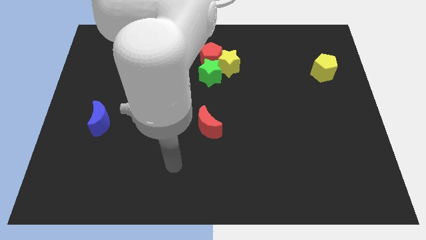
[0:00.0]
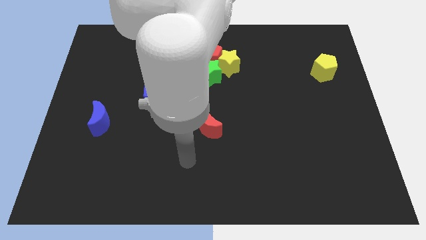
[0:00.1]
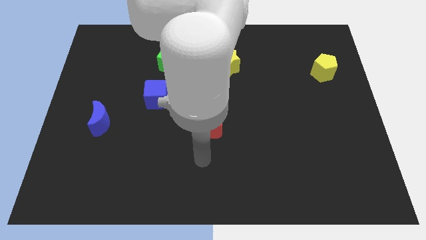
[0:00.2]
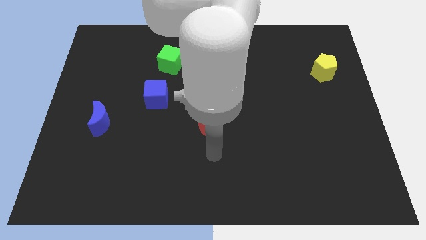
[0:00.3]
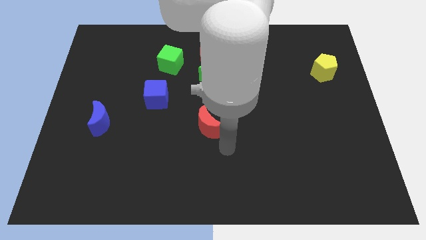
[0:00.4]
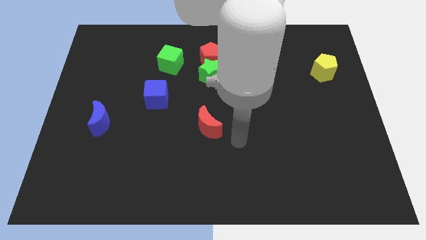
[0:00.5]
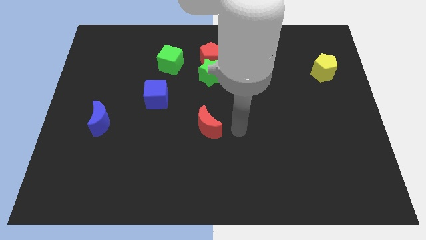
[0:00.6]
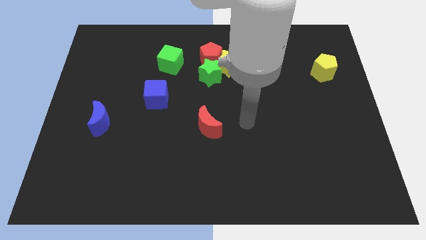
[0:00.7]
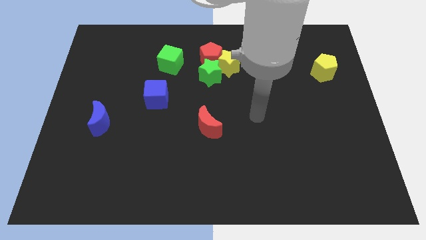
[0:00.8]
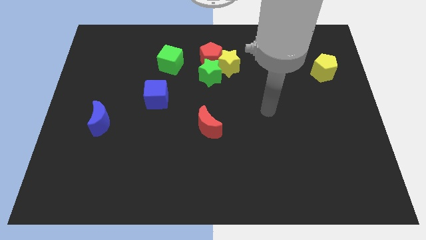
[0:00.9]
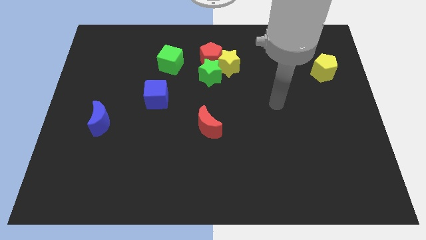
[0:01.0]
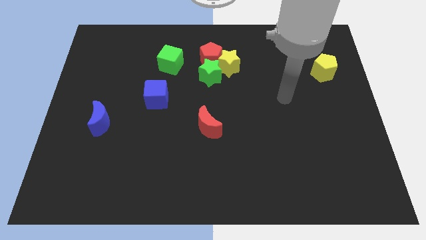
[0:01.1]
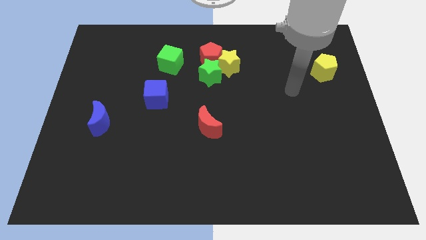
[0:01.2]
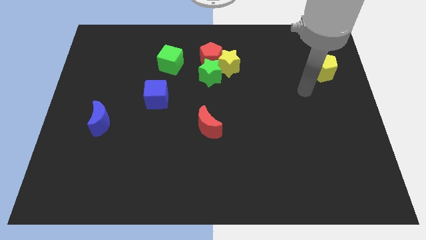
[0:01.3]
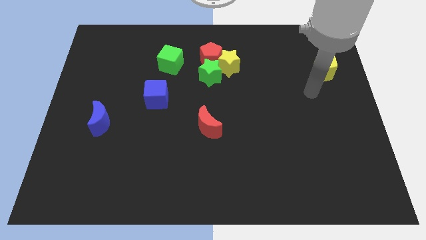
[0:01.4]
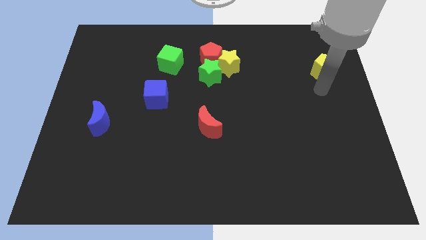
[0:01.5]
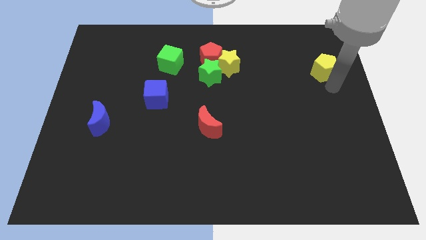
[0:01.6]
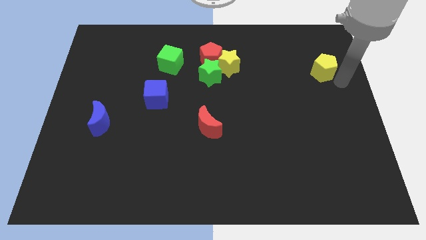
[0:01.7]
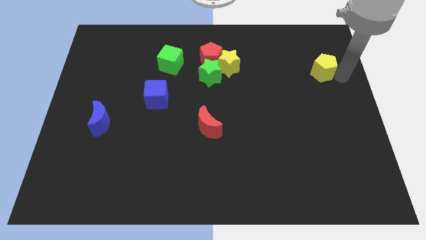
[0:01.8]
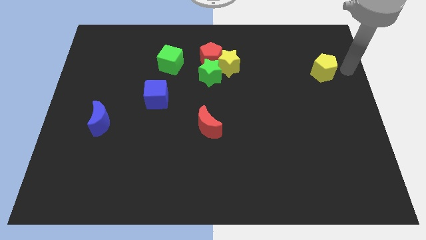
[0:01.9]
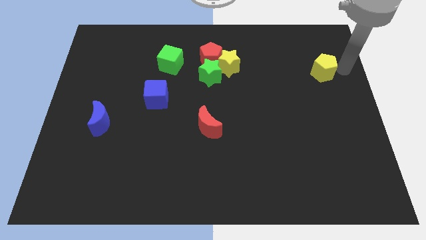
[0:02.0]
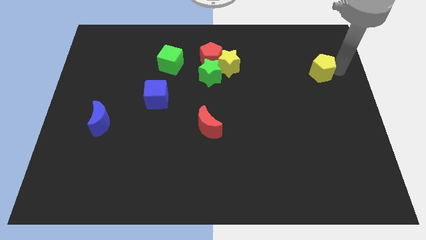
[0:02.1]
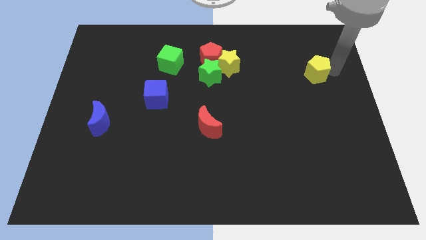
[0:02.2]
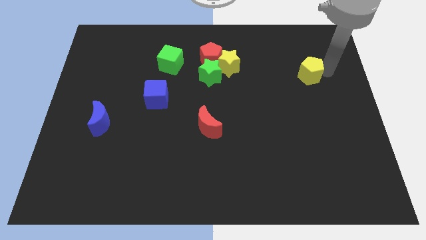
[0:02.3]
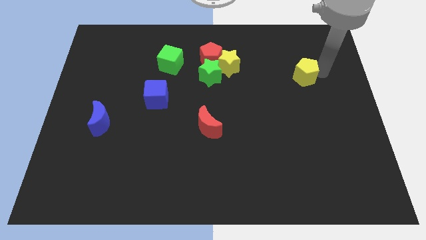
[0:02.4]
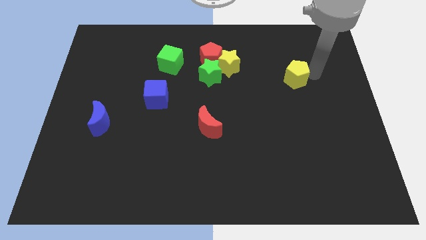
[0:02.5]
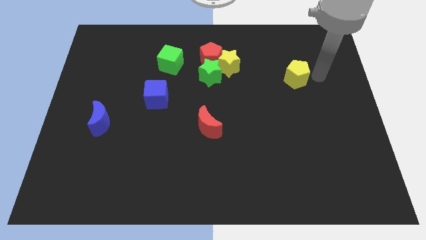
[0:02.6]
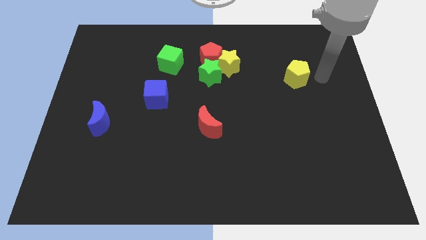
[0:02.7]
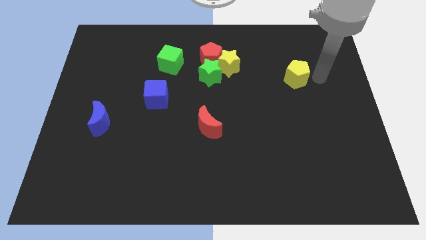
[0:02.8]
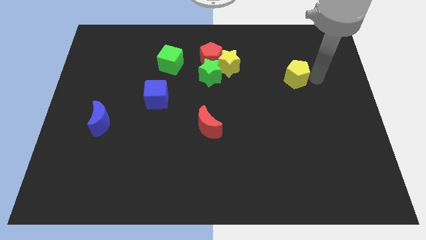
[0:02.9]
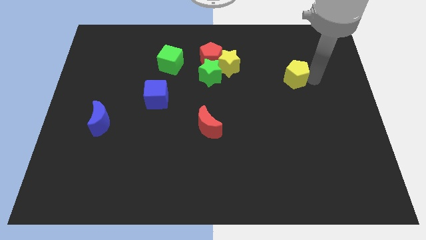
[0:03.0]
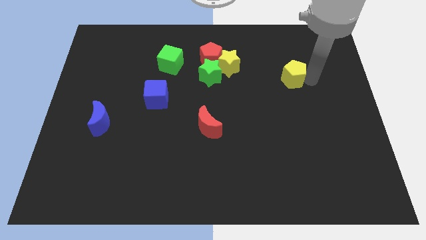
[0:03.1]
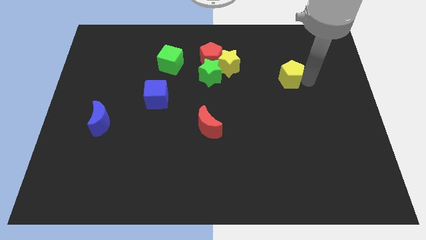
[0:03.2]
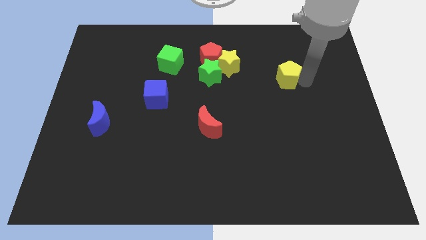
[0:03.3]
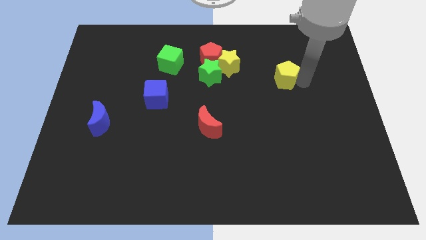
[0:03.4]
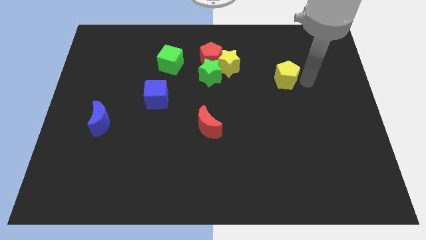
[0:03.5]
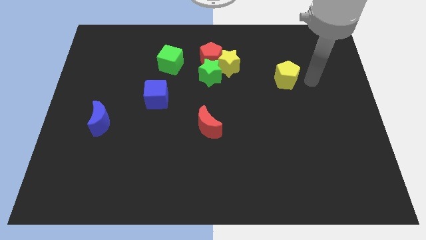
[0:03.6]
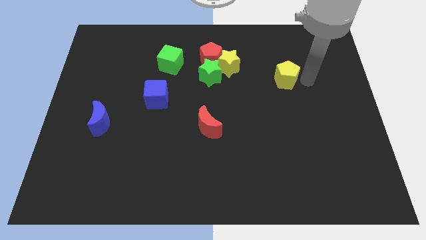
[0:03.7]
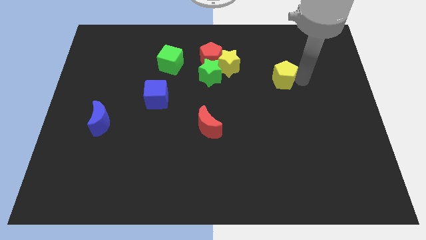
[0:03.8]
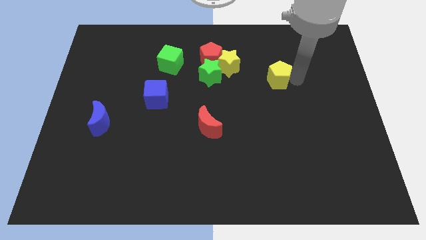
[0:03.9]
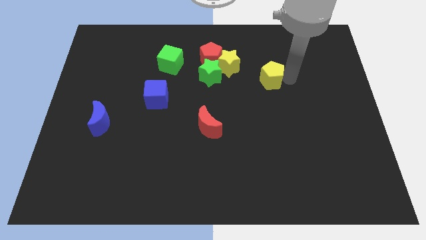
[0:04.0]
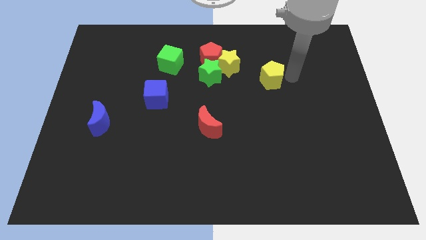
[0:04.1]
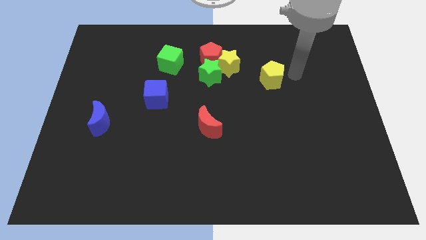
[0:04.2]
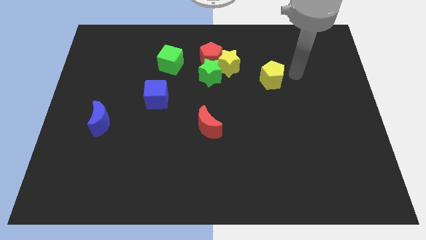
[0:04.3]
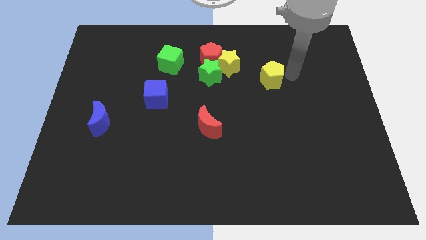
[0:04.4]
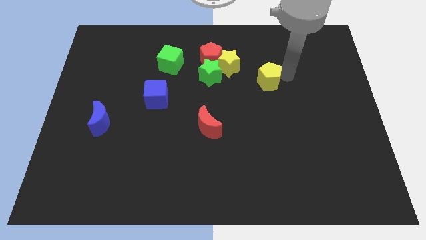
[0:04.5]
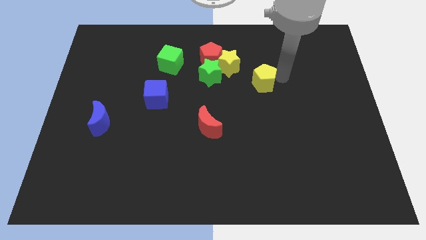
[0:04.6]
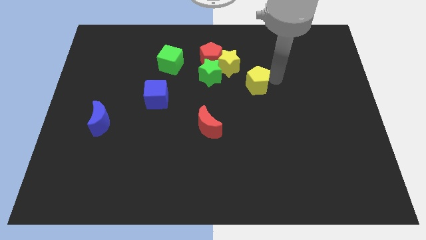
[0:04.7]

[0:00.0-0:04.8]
push the yellow pentagon to the middle

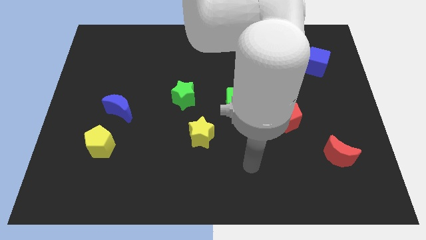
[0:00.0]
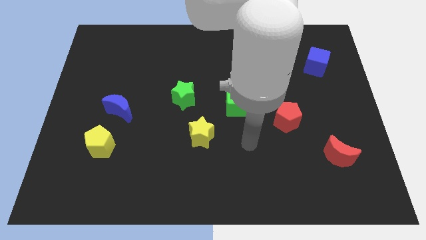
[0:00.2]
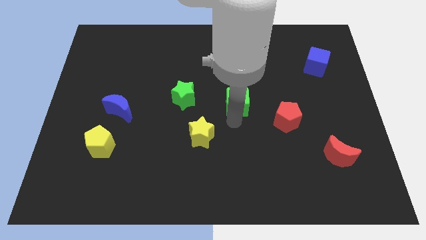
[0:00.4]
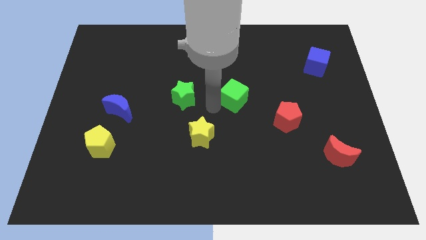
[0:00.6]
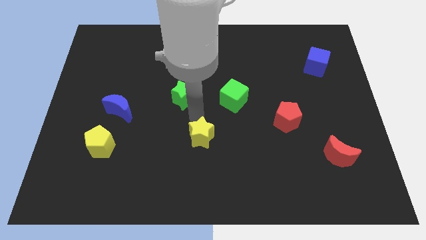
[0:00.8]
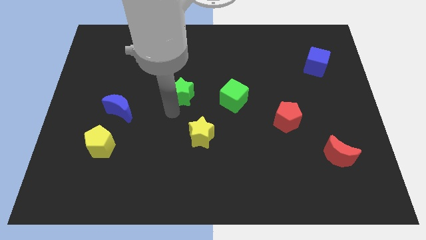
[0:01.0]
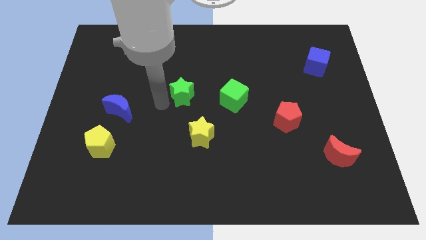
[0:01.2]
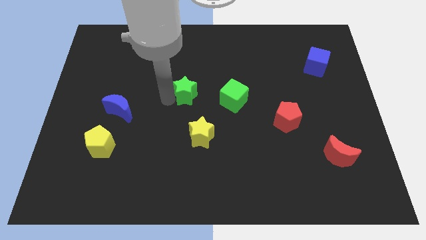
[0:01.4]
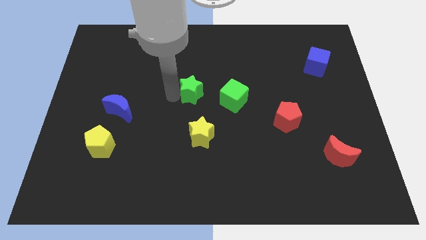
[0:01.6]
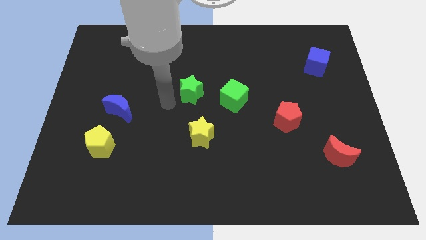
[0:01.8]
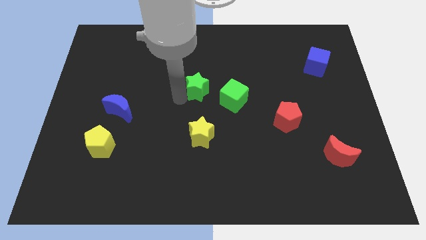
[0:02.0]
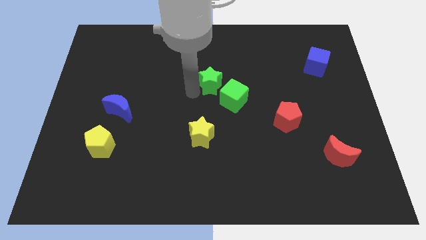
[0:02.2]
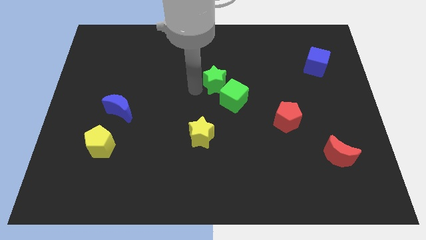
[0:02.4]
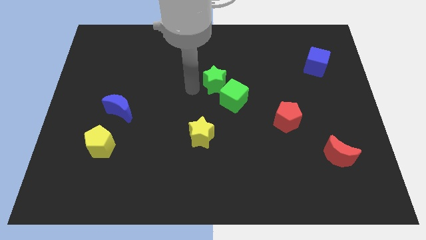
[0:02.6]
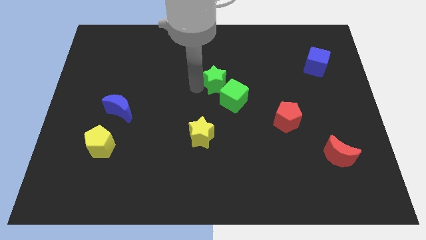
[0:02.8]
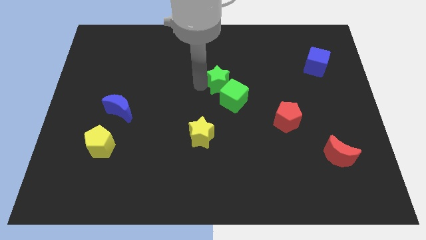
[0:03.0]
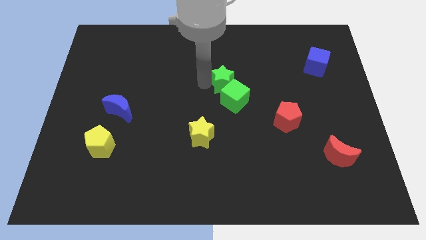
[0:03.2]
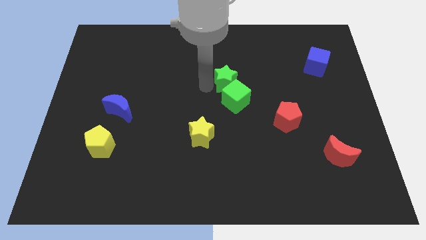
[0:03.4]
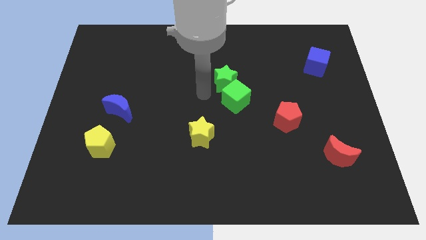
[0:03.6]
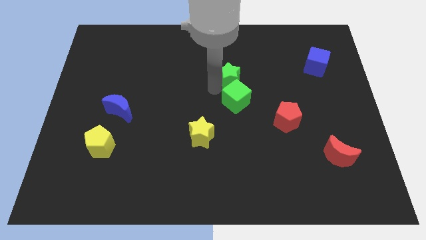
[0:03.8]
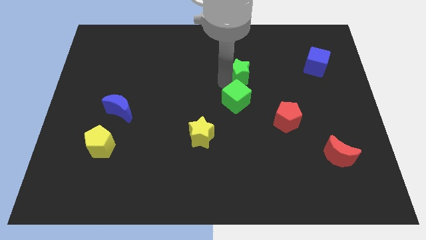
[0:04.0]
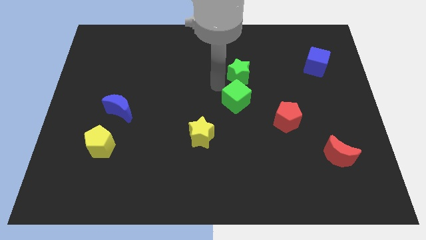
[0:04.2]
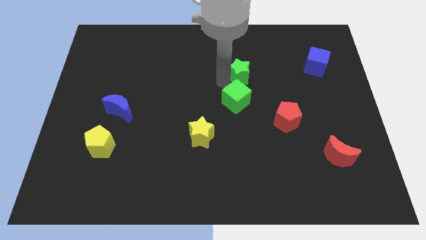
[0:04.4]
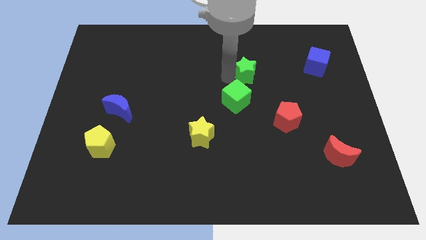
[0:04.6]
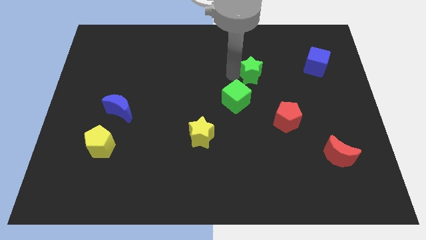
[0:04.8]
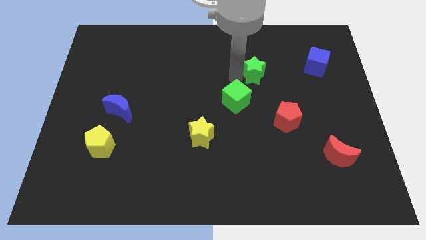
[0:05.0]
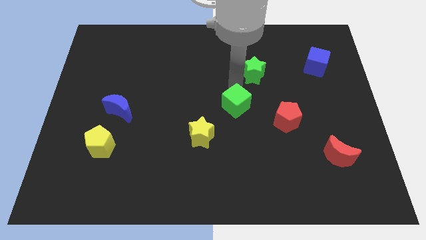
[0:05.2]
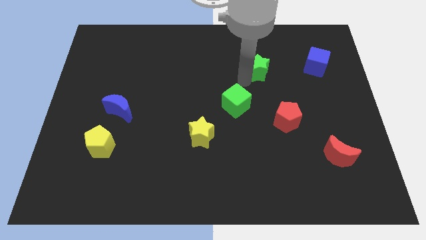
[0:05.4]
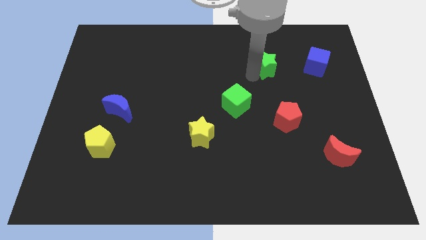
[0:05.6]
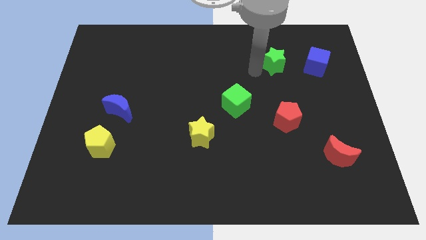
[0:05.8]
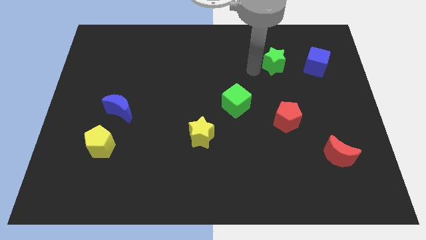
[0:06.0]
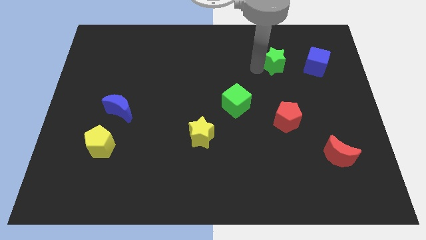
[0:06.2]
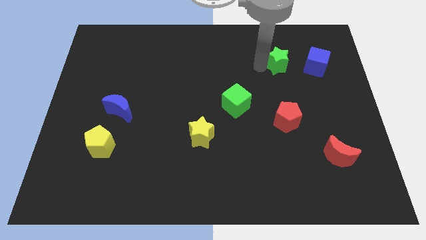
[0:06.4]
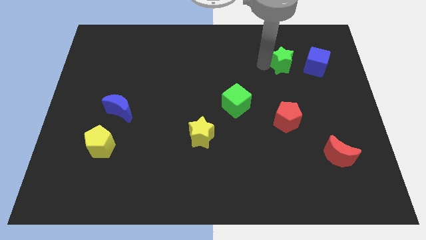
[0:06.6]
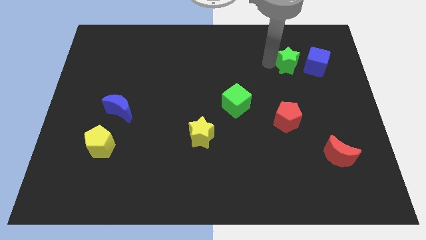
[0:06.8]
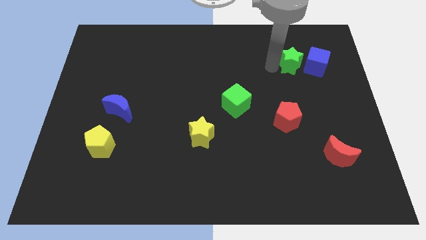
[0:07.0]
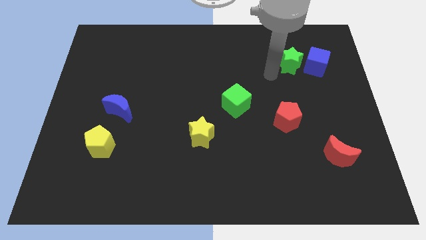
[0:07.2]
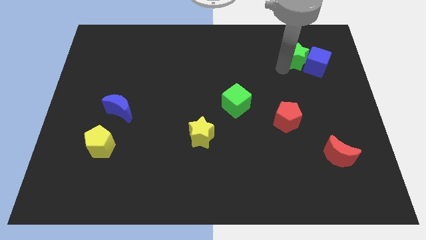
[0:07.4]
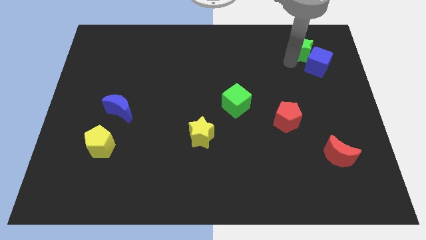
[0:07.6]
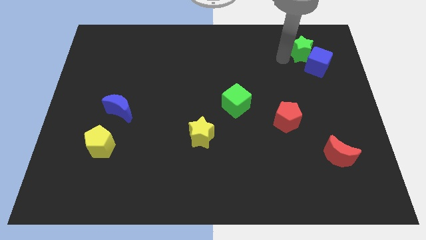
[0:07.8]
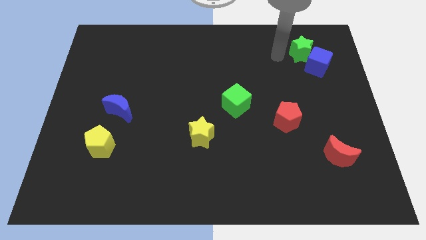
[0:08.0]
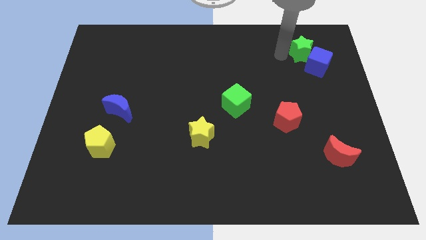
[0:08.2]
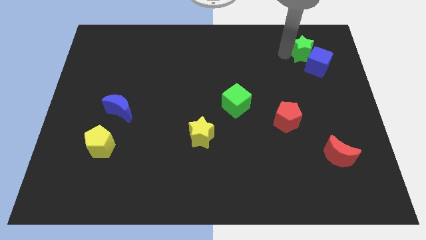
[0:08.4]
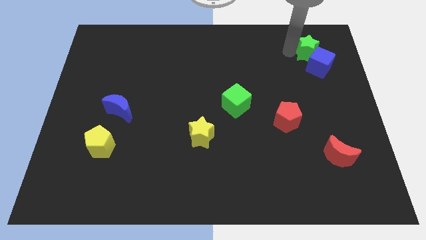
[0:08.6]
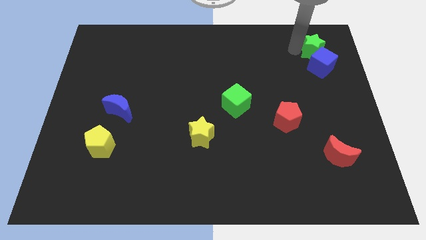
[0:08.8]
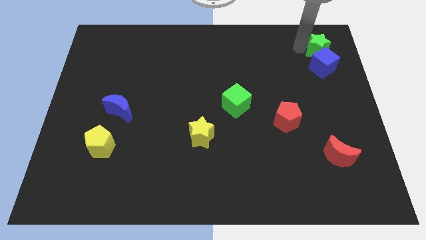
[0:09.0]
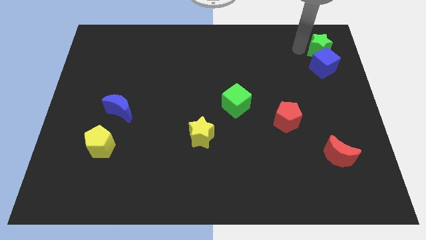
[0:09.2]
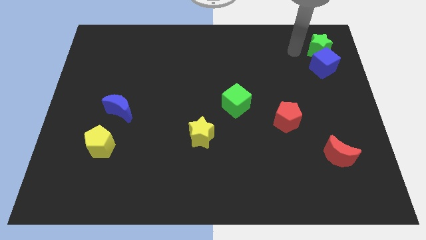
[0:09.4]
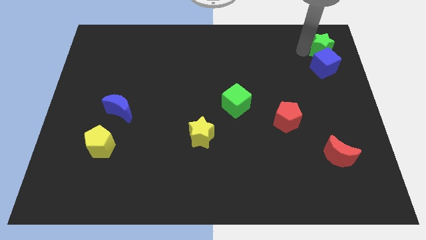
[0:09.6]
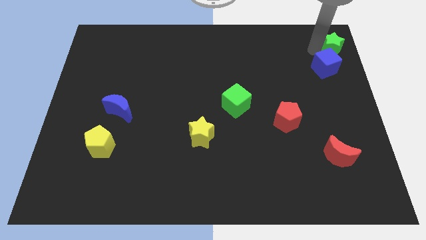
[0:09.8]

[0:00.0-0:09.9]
slide the green star to the top right
